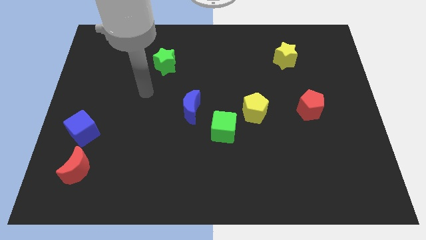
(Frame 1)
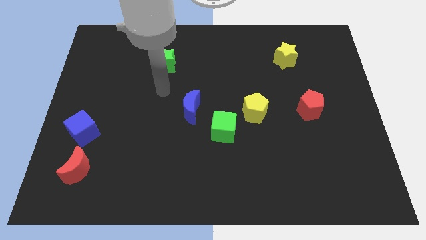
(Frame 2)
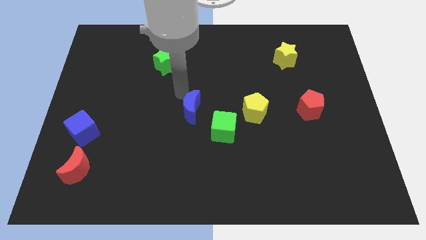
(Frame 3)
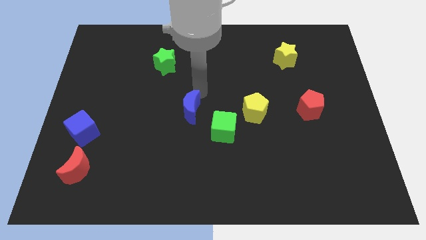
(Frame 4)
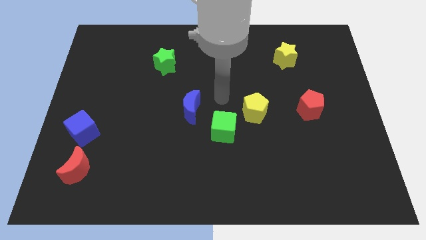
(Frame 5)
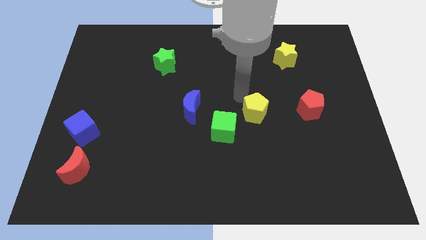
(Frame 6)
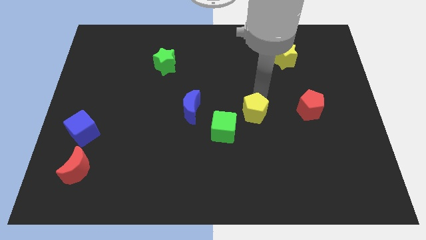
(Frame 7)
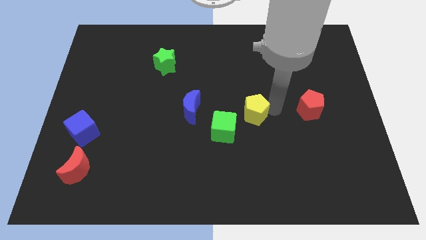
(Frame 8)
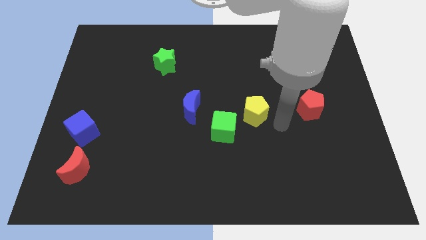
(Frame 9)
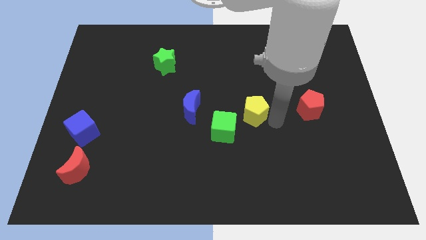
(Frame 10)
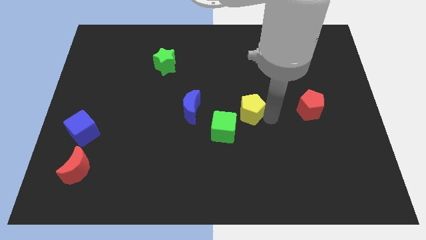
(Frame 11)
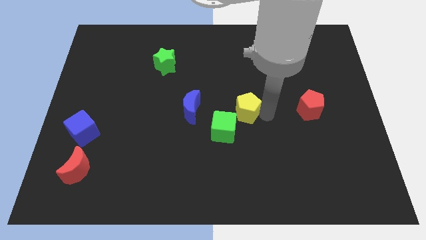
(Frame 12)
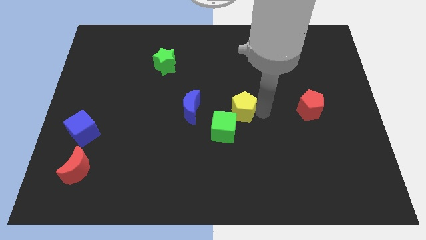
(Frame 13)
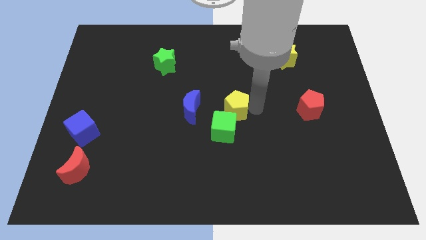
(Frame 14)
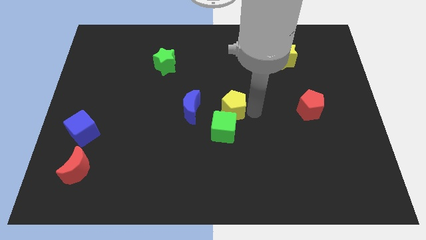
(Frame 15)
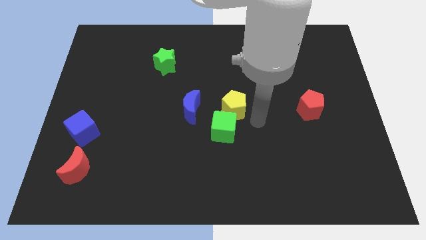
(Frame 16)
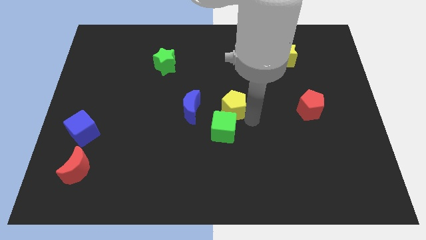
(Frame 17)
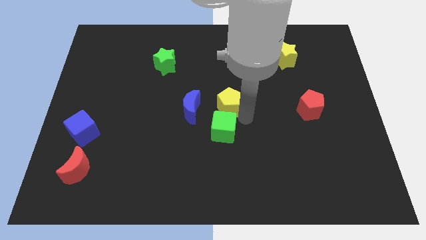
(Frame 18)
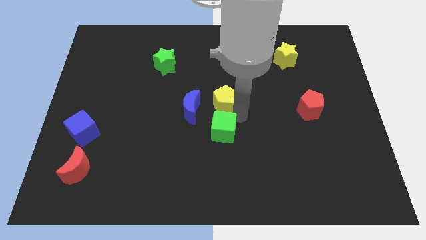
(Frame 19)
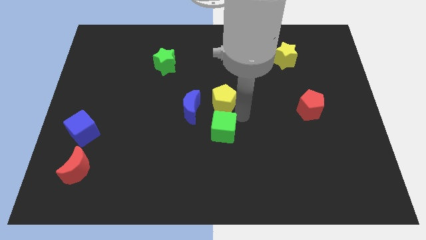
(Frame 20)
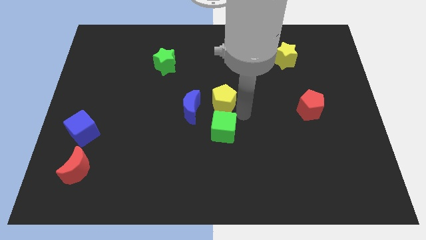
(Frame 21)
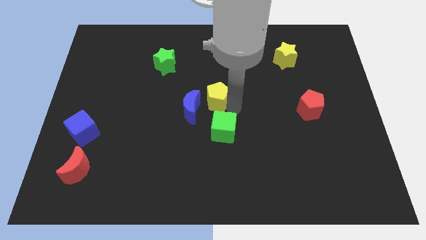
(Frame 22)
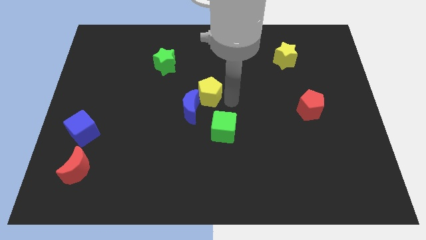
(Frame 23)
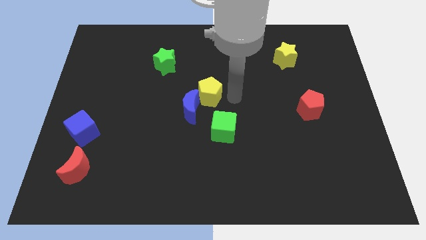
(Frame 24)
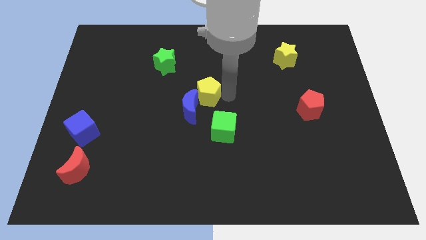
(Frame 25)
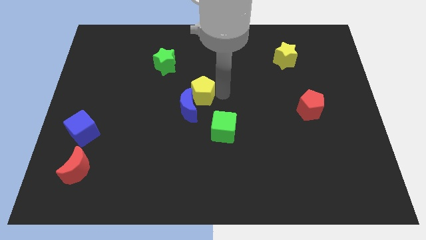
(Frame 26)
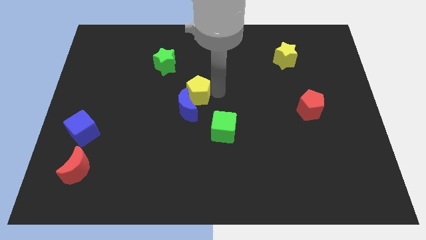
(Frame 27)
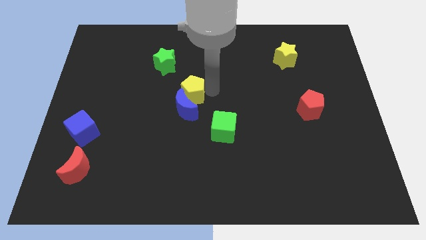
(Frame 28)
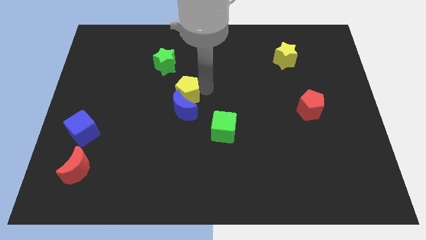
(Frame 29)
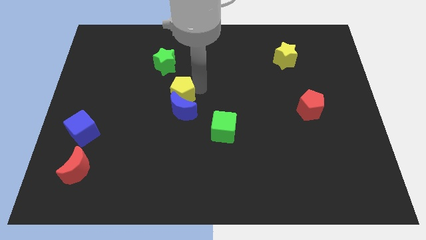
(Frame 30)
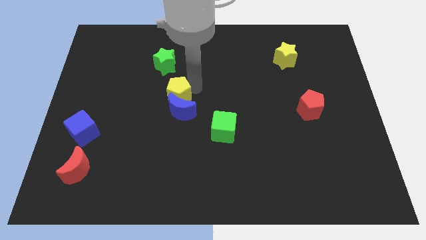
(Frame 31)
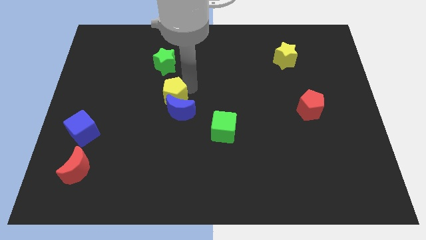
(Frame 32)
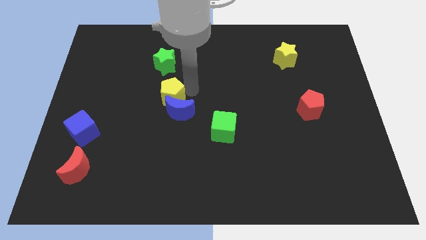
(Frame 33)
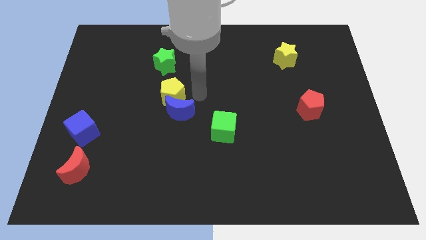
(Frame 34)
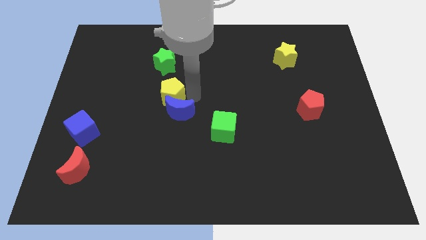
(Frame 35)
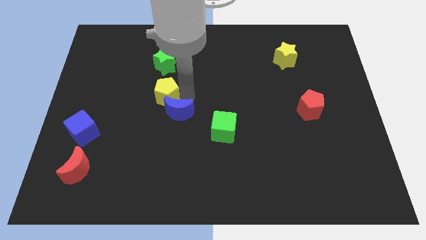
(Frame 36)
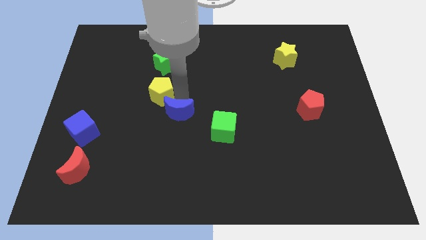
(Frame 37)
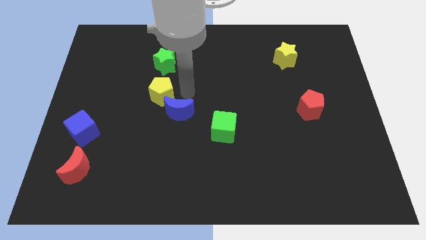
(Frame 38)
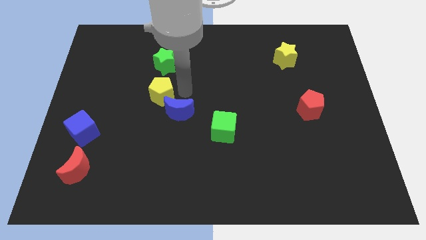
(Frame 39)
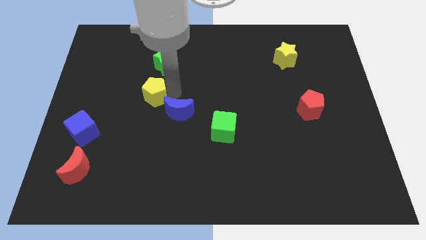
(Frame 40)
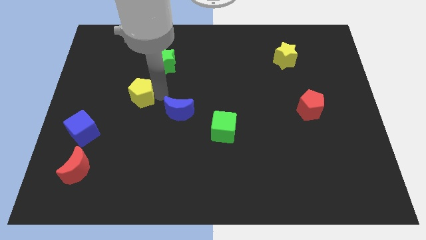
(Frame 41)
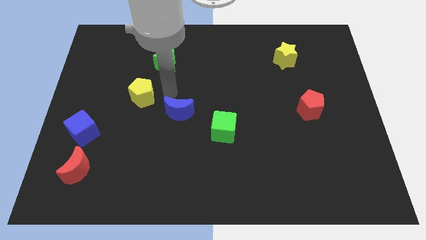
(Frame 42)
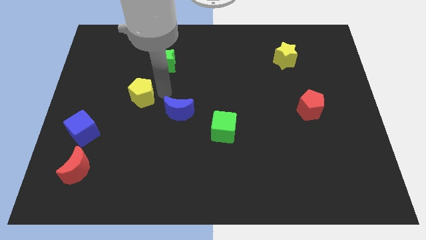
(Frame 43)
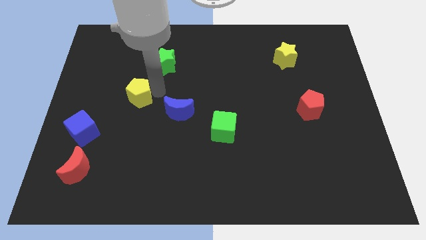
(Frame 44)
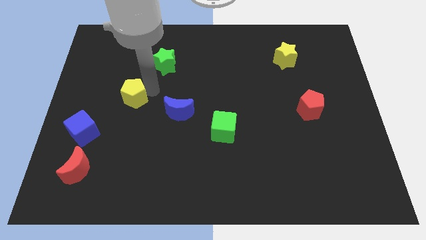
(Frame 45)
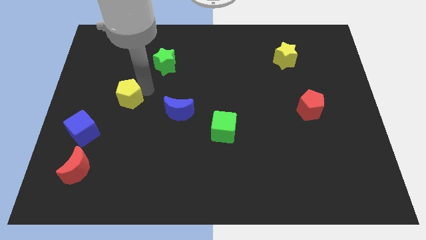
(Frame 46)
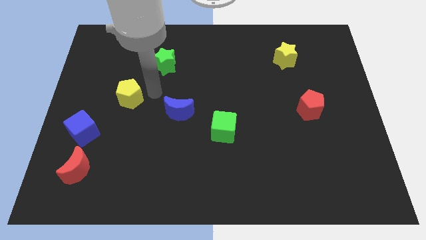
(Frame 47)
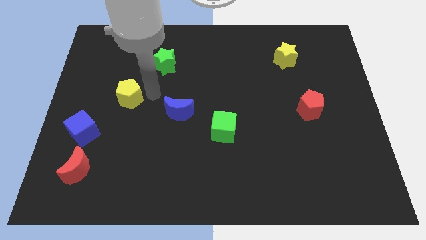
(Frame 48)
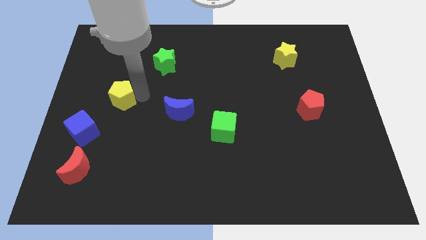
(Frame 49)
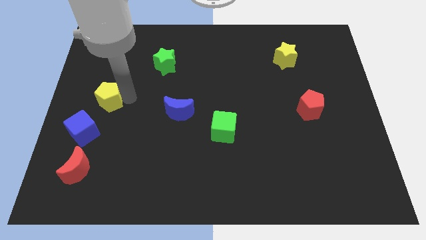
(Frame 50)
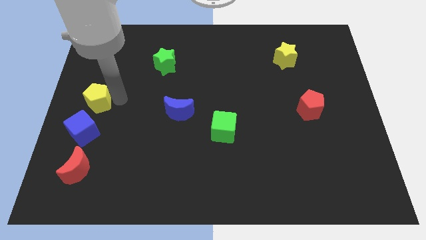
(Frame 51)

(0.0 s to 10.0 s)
put the yellow pentagon to the center left

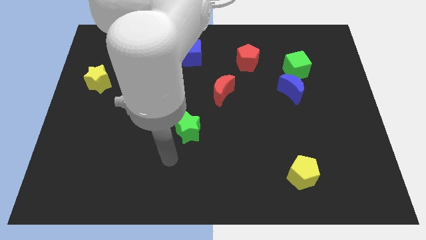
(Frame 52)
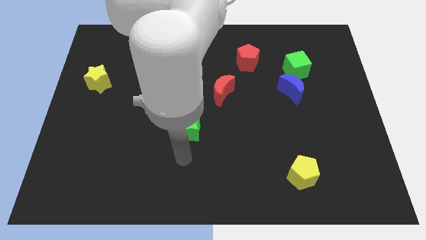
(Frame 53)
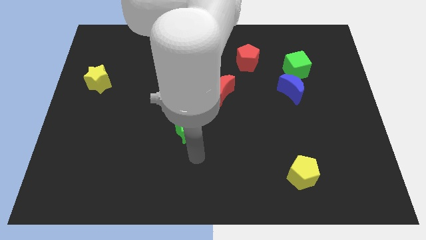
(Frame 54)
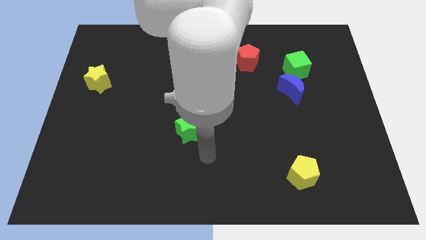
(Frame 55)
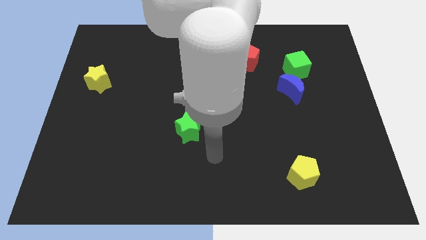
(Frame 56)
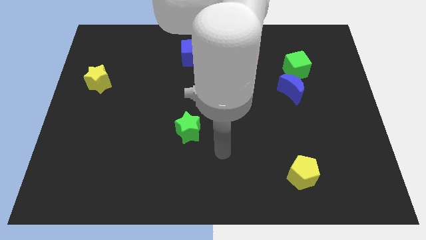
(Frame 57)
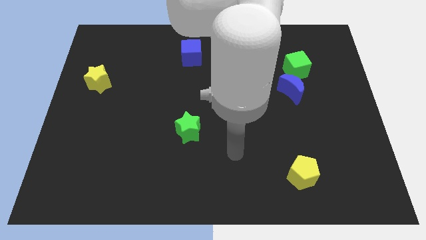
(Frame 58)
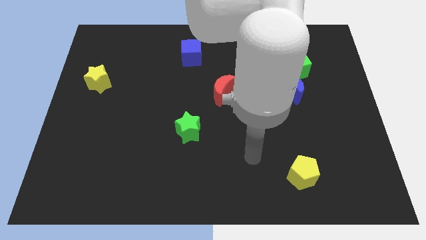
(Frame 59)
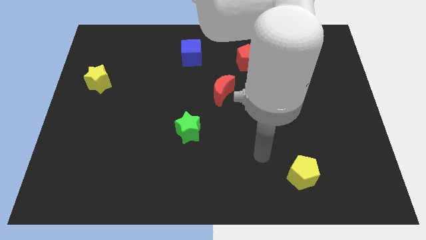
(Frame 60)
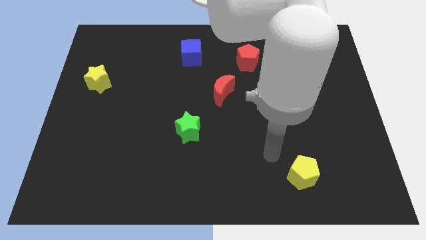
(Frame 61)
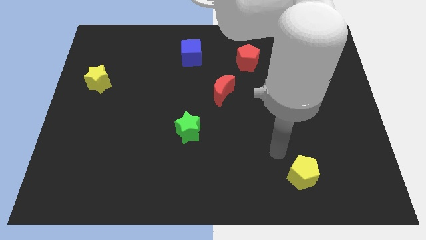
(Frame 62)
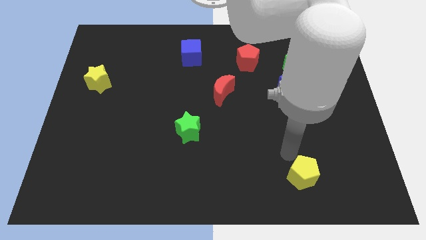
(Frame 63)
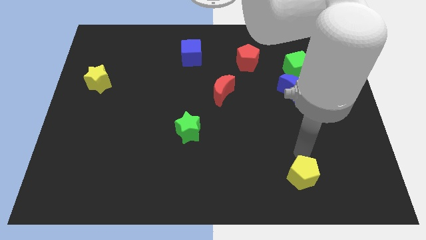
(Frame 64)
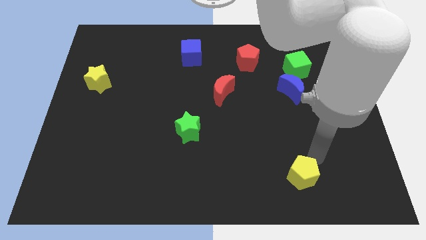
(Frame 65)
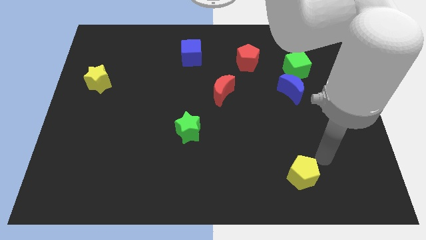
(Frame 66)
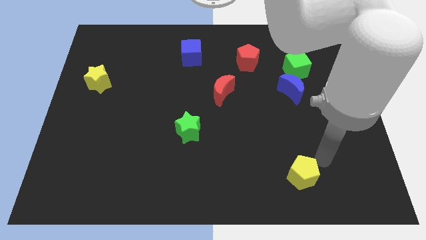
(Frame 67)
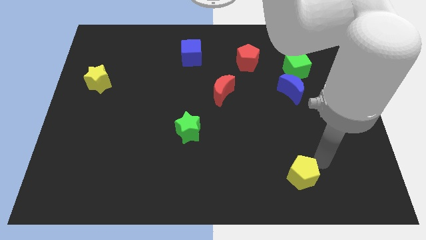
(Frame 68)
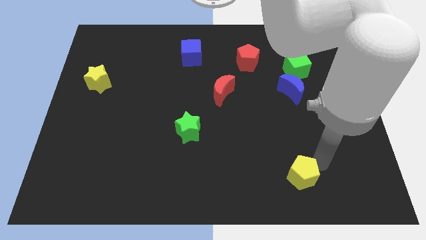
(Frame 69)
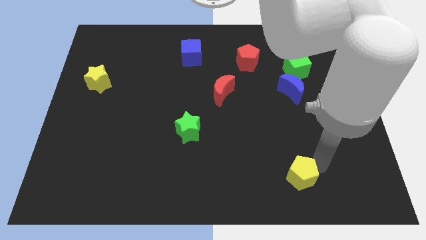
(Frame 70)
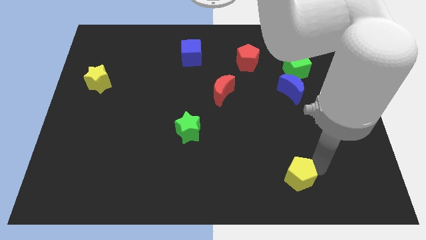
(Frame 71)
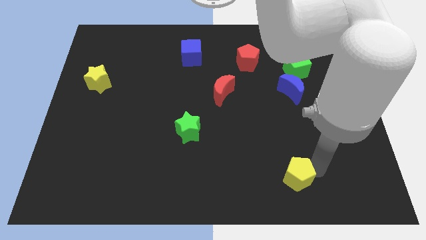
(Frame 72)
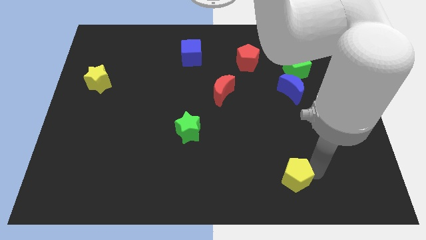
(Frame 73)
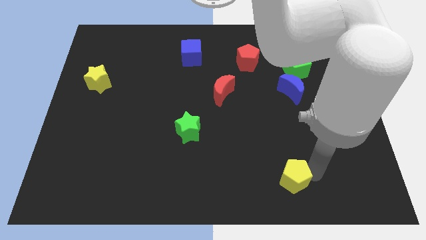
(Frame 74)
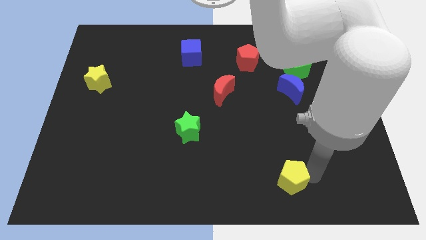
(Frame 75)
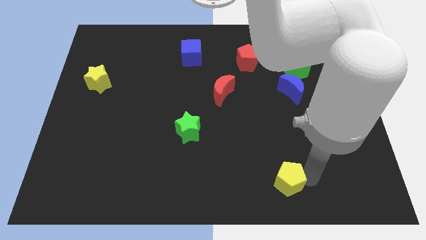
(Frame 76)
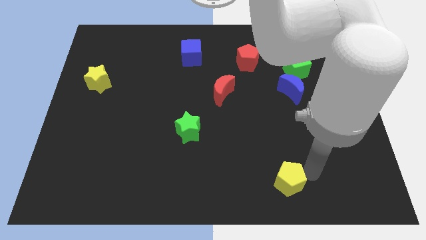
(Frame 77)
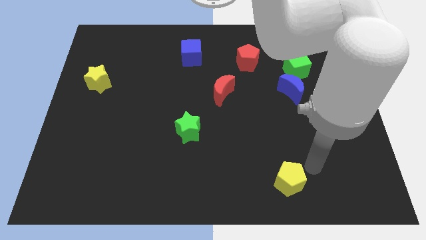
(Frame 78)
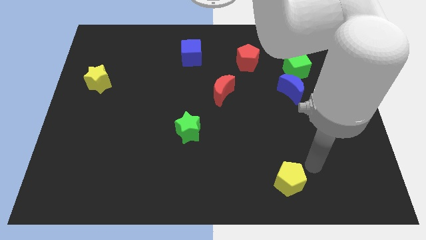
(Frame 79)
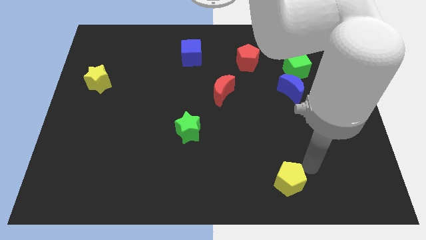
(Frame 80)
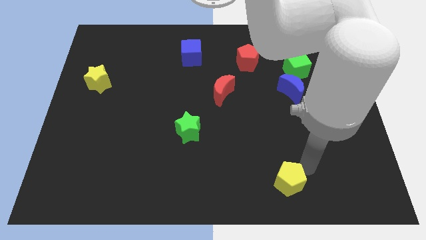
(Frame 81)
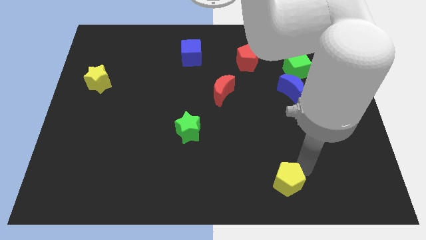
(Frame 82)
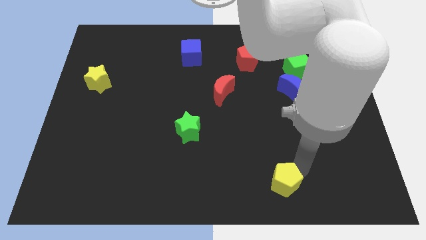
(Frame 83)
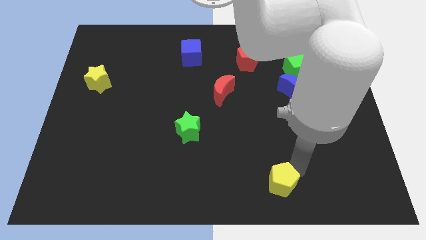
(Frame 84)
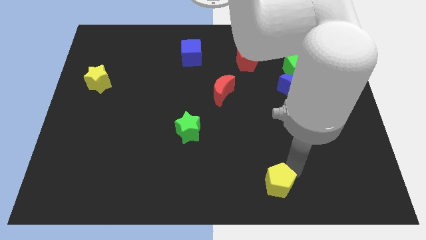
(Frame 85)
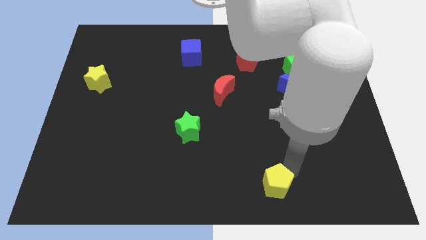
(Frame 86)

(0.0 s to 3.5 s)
move the yellow pentagon to the bottom
